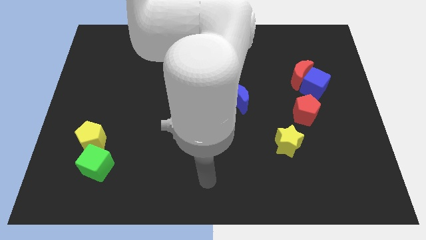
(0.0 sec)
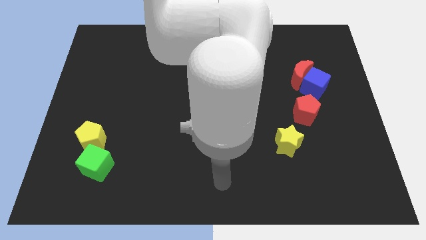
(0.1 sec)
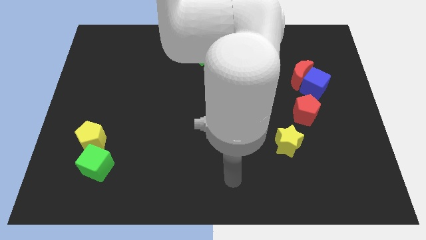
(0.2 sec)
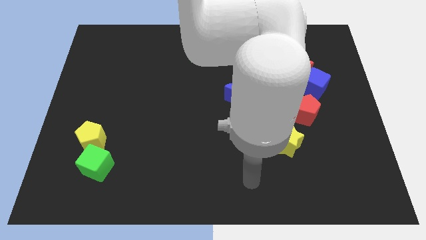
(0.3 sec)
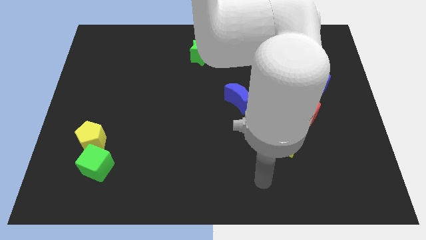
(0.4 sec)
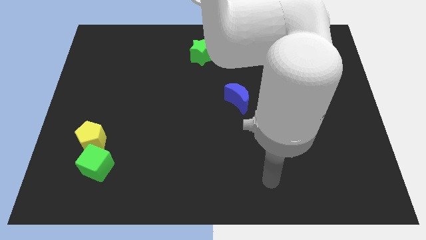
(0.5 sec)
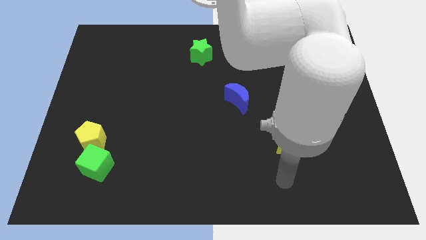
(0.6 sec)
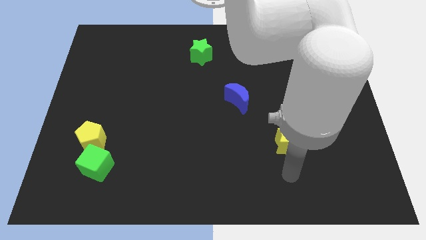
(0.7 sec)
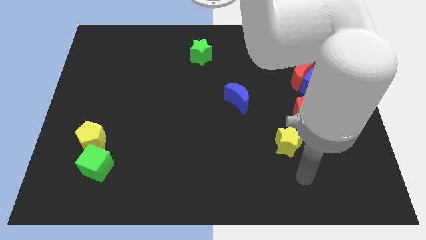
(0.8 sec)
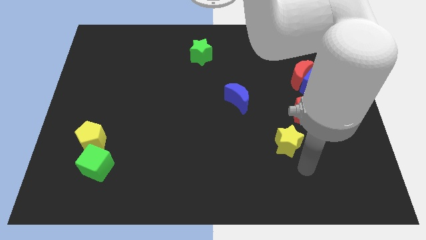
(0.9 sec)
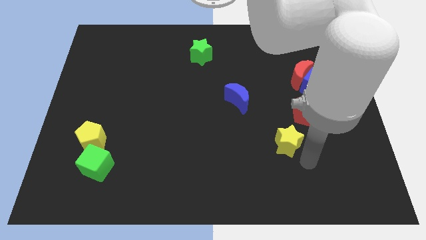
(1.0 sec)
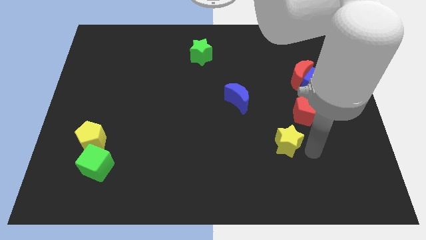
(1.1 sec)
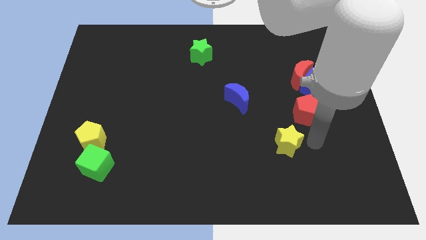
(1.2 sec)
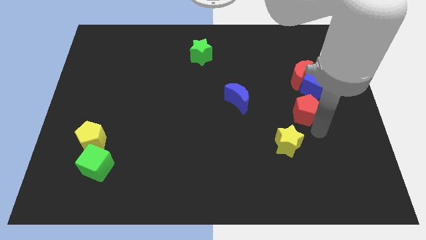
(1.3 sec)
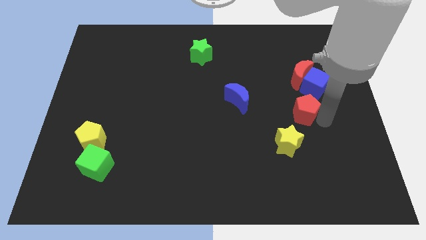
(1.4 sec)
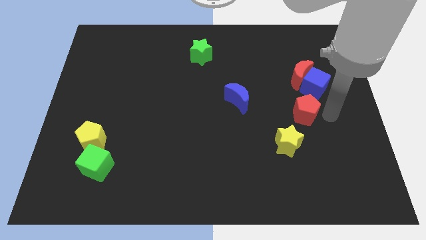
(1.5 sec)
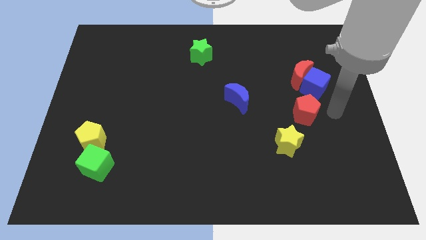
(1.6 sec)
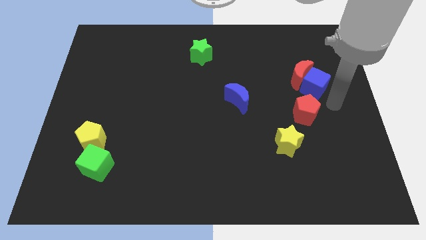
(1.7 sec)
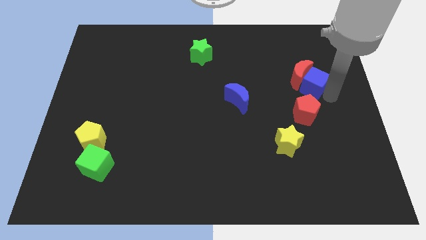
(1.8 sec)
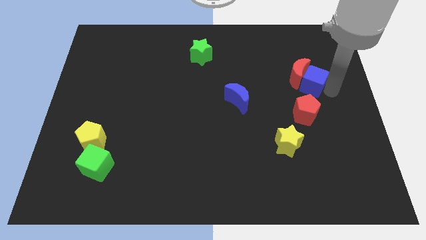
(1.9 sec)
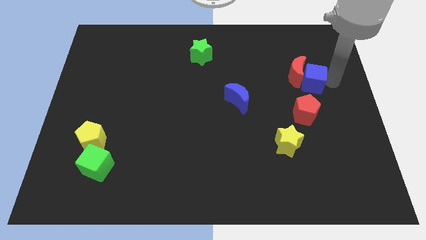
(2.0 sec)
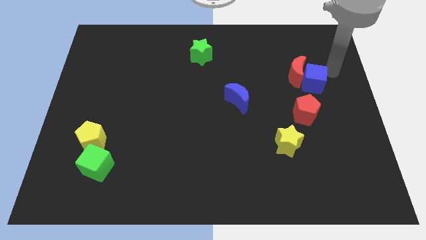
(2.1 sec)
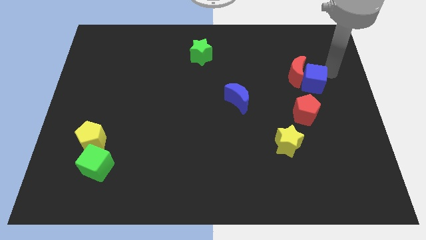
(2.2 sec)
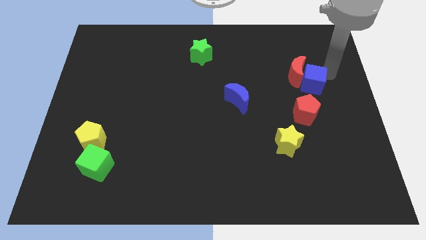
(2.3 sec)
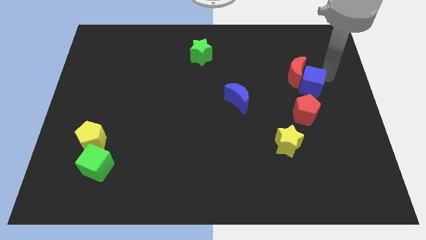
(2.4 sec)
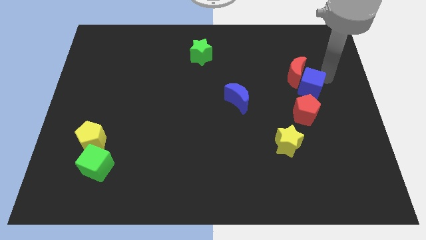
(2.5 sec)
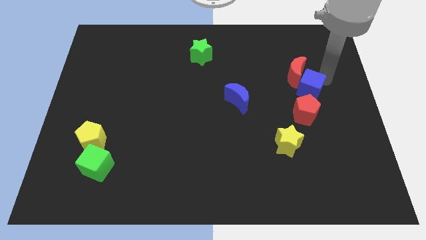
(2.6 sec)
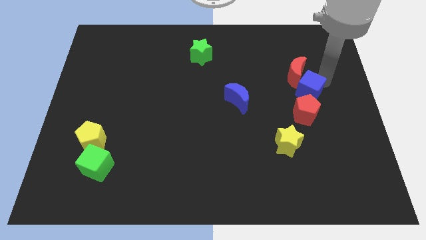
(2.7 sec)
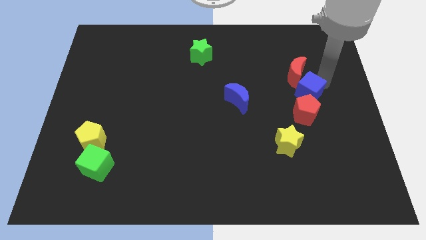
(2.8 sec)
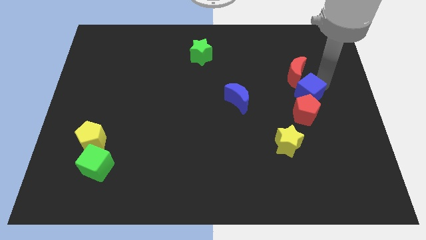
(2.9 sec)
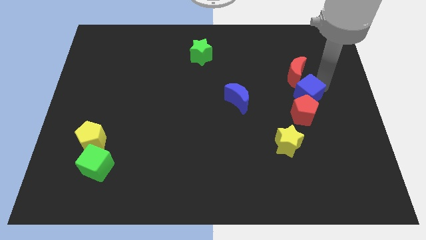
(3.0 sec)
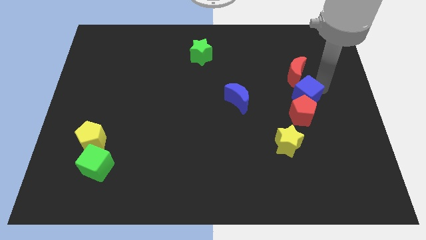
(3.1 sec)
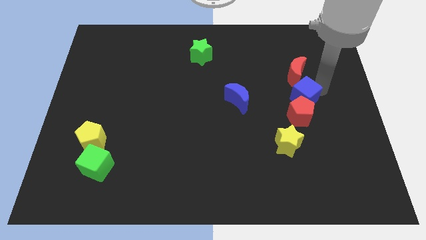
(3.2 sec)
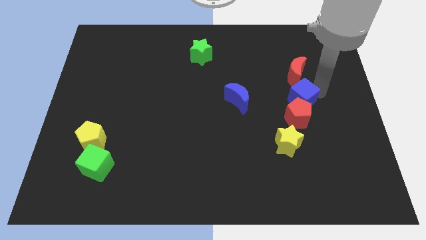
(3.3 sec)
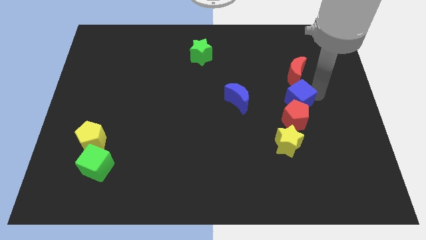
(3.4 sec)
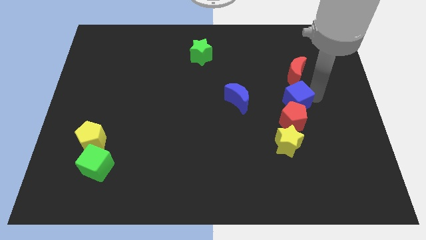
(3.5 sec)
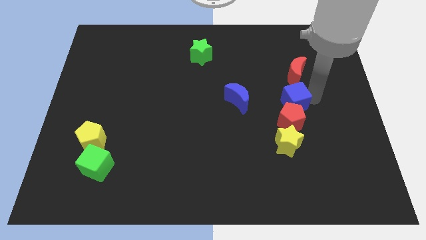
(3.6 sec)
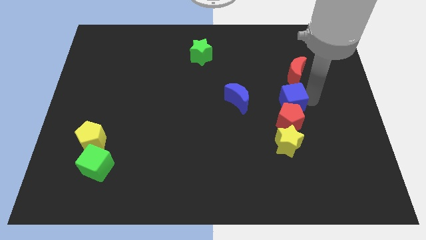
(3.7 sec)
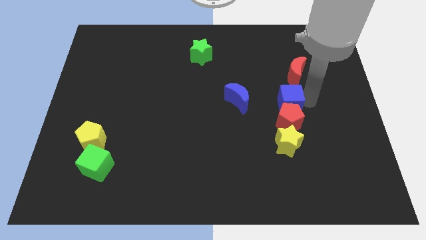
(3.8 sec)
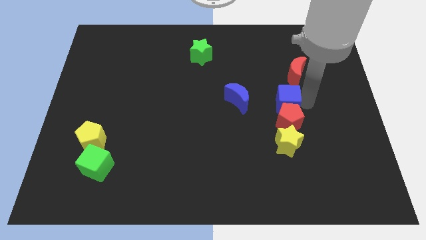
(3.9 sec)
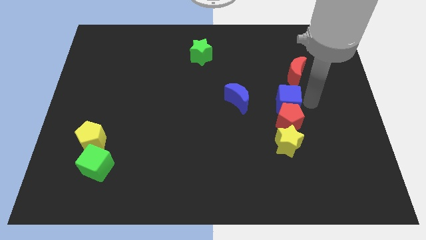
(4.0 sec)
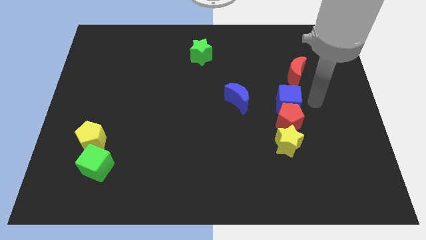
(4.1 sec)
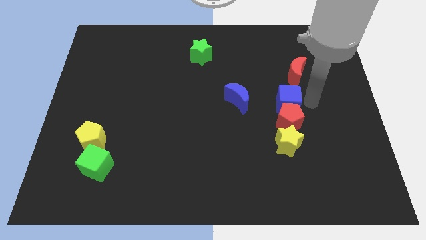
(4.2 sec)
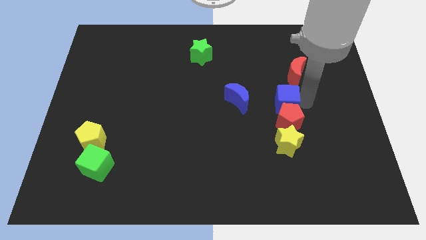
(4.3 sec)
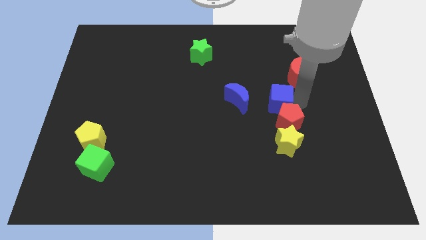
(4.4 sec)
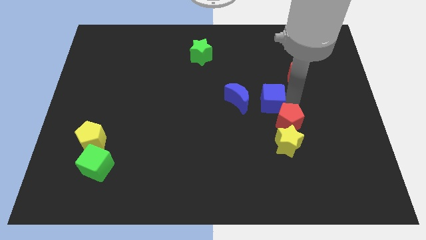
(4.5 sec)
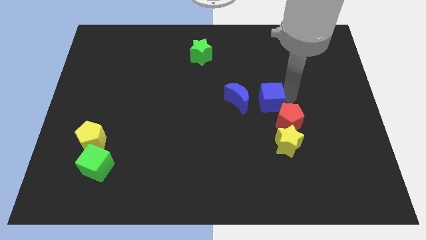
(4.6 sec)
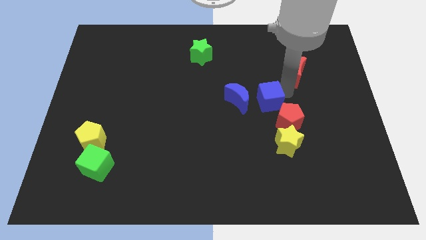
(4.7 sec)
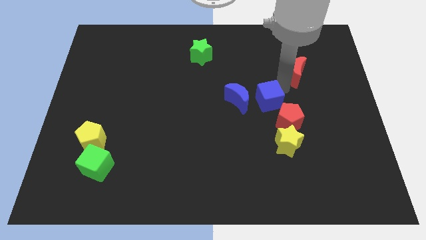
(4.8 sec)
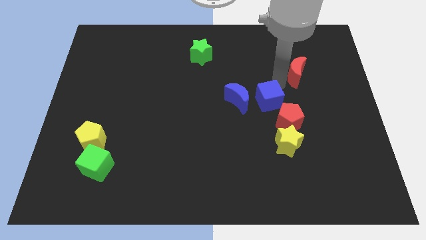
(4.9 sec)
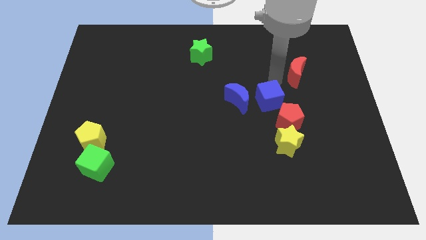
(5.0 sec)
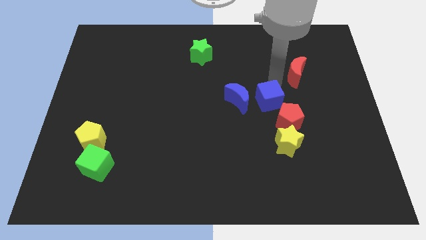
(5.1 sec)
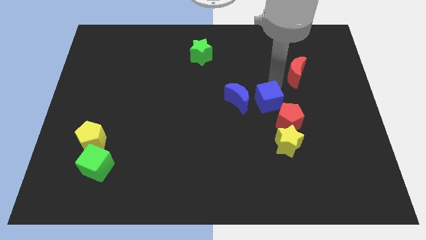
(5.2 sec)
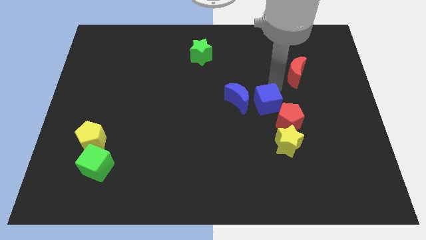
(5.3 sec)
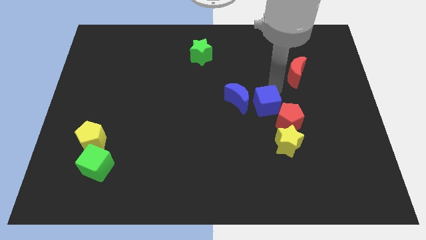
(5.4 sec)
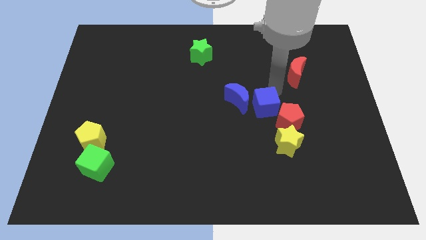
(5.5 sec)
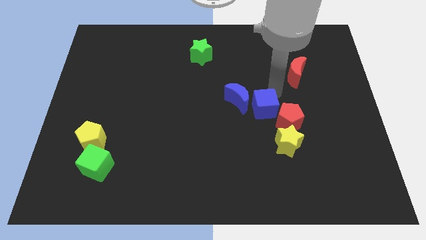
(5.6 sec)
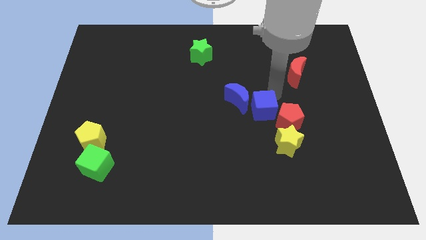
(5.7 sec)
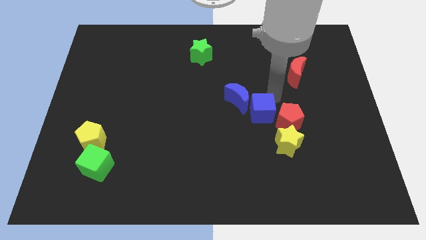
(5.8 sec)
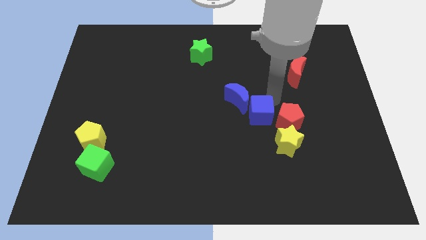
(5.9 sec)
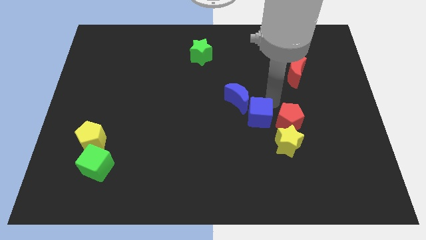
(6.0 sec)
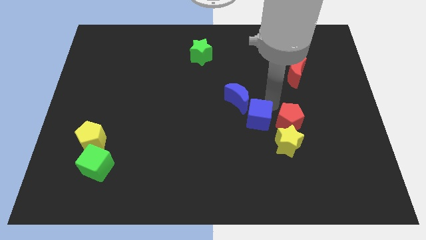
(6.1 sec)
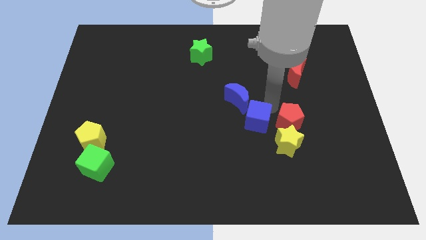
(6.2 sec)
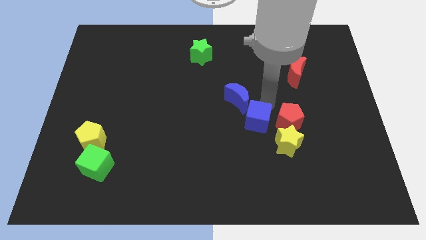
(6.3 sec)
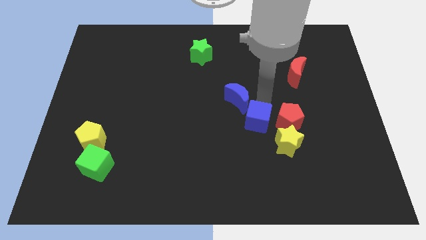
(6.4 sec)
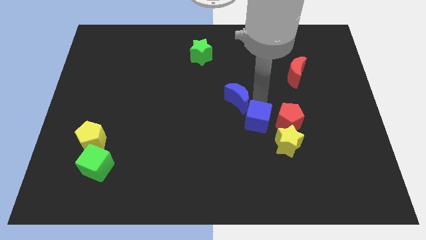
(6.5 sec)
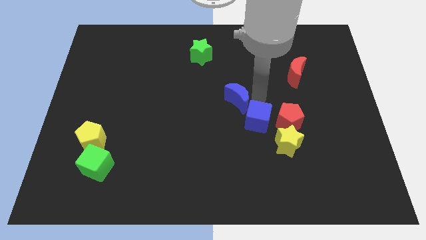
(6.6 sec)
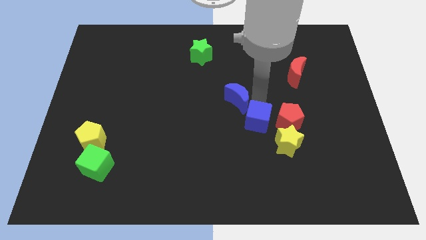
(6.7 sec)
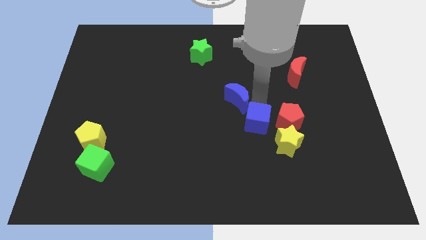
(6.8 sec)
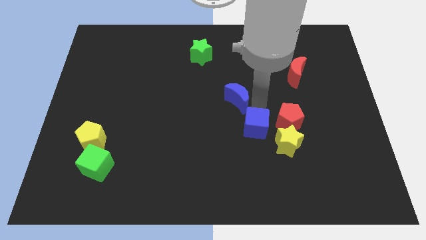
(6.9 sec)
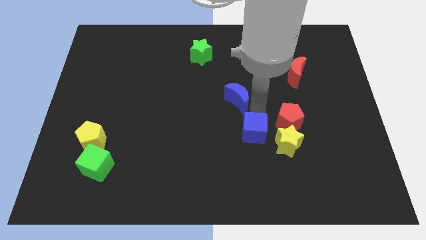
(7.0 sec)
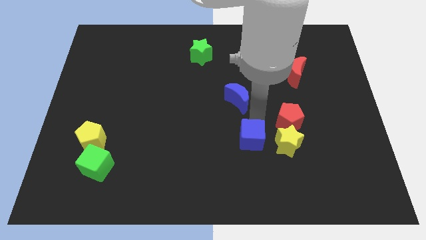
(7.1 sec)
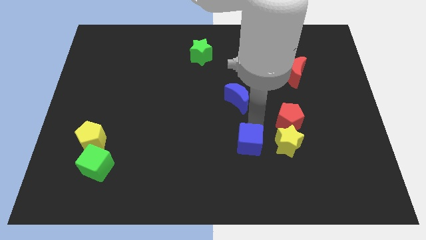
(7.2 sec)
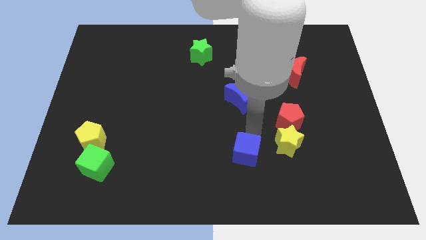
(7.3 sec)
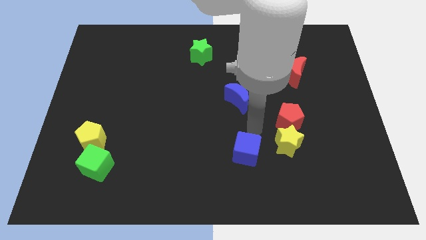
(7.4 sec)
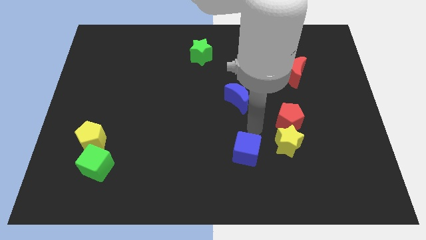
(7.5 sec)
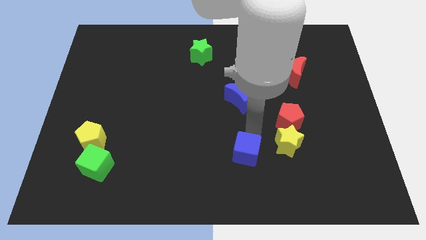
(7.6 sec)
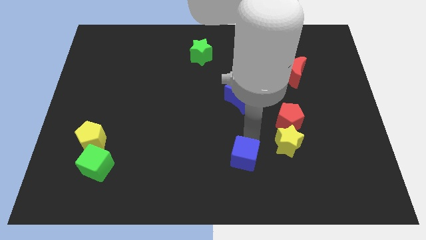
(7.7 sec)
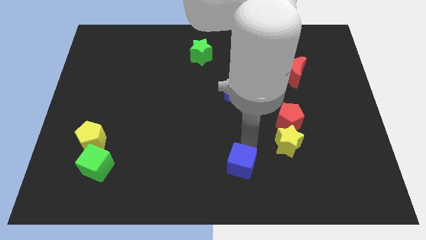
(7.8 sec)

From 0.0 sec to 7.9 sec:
move the blue cube to the bottom side
